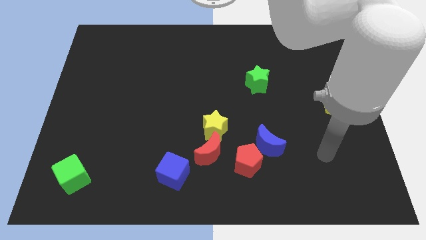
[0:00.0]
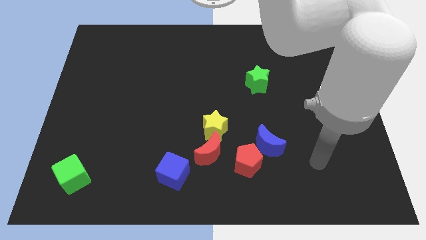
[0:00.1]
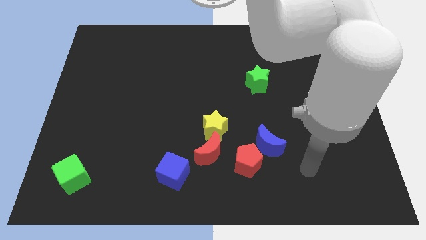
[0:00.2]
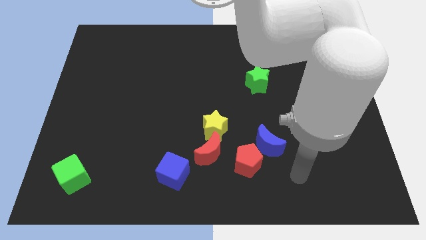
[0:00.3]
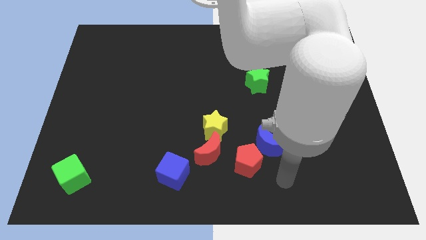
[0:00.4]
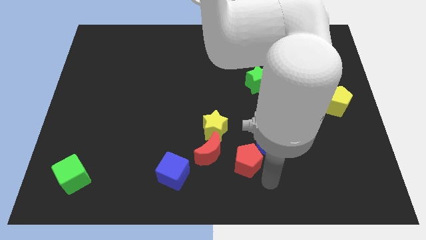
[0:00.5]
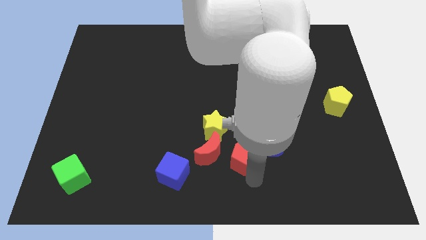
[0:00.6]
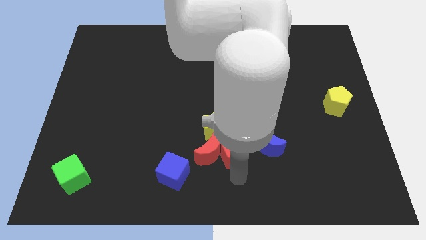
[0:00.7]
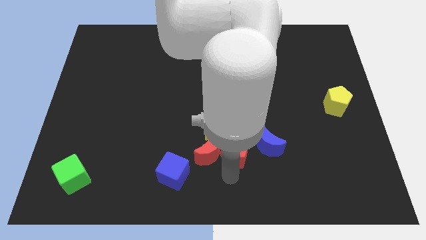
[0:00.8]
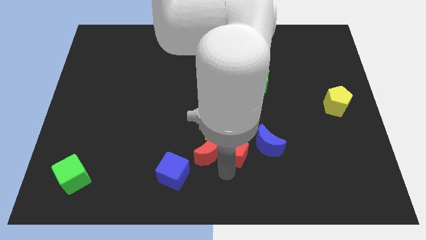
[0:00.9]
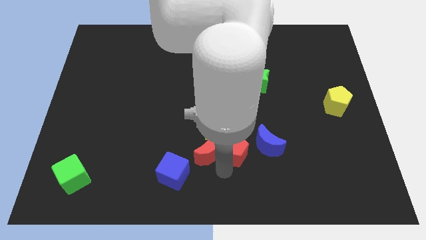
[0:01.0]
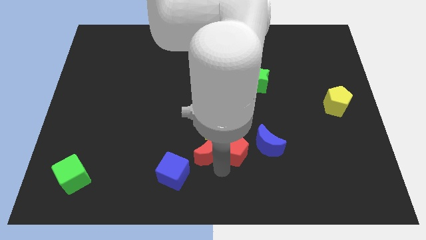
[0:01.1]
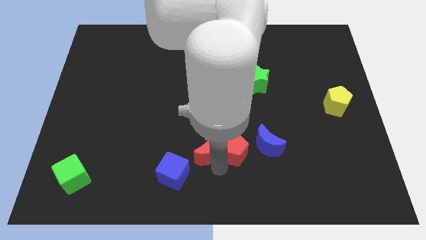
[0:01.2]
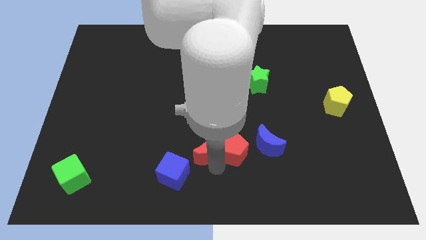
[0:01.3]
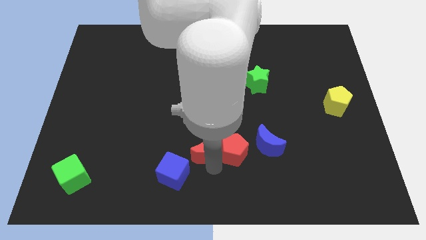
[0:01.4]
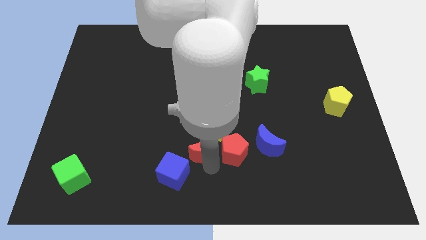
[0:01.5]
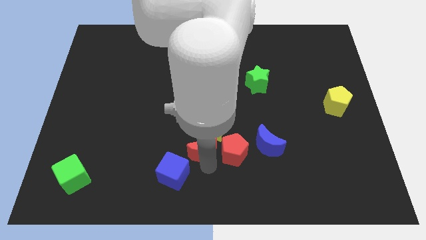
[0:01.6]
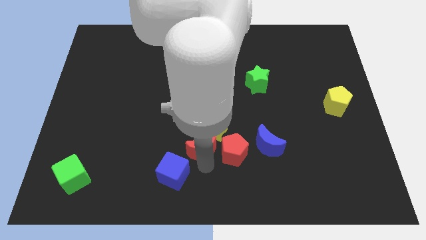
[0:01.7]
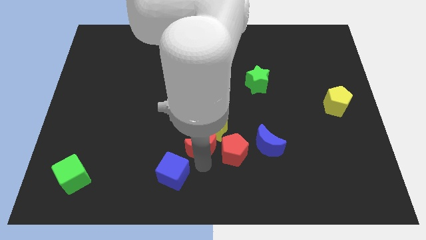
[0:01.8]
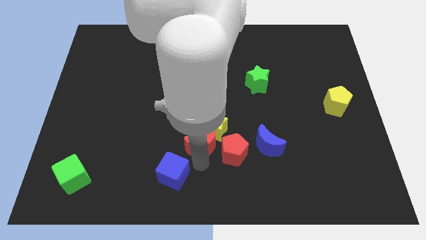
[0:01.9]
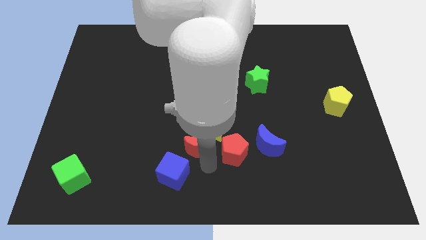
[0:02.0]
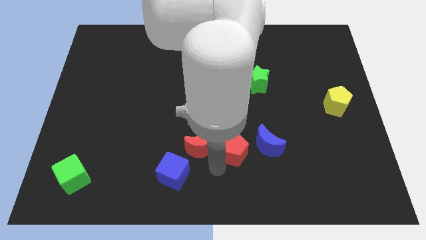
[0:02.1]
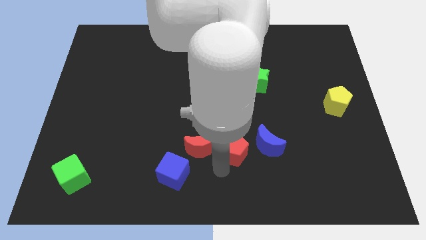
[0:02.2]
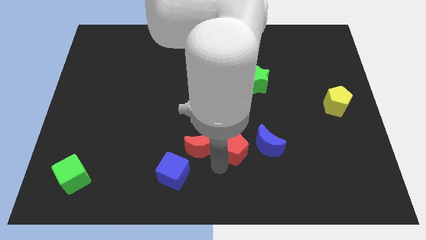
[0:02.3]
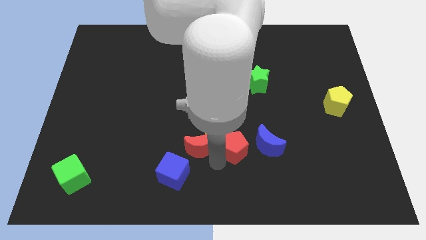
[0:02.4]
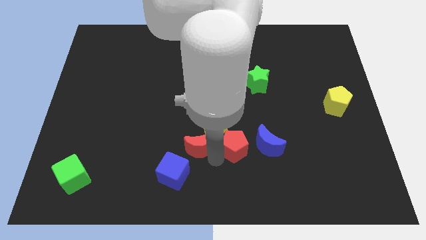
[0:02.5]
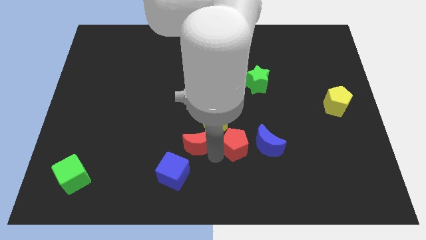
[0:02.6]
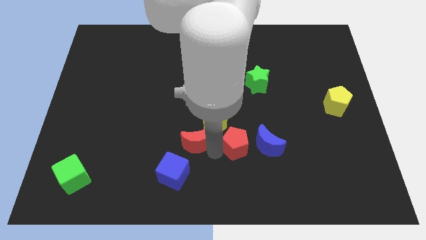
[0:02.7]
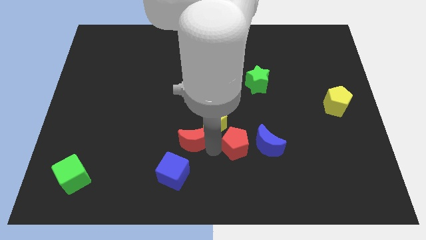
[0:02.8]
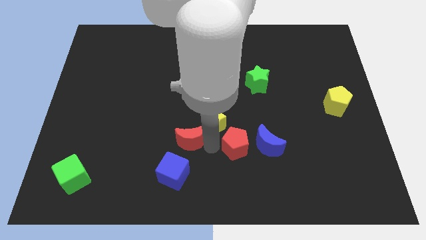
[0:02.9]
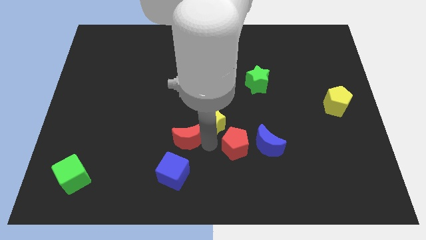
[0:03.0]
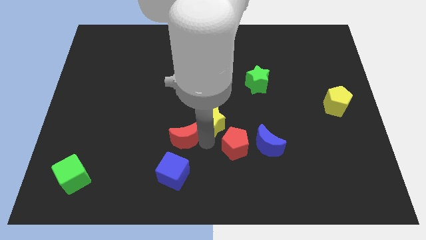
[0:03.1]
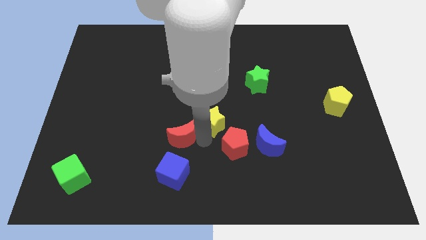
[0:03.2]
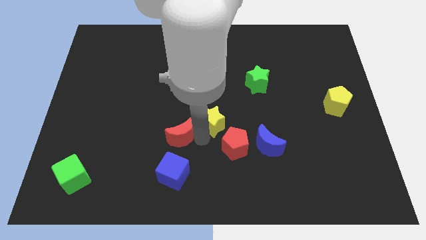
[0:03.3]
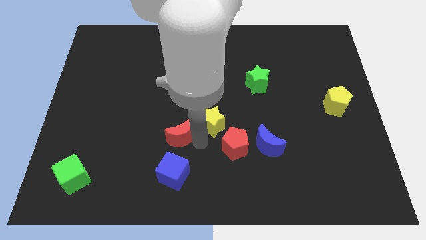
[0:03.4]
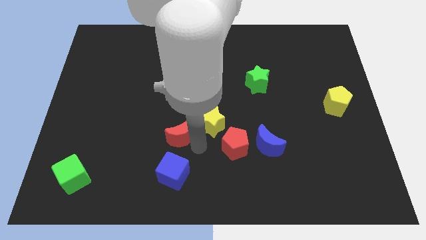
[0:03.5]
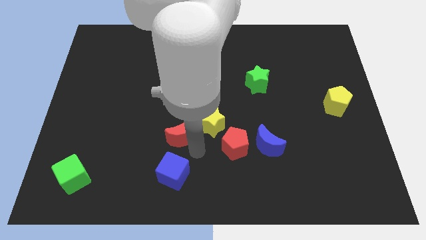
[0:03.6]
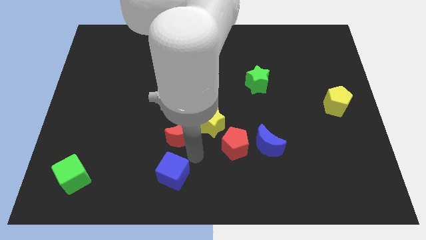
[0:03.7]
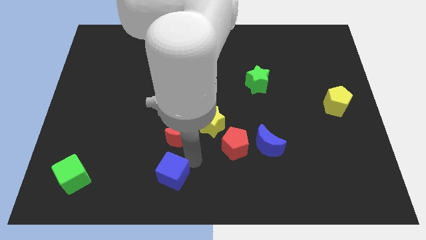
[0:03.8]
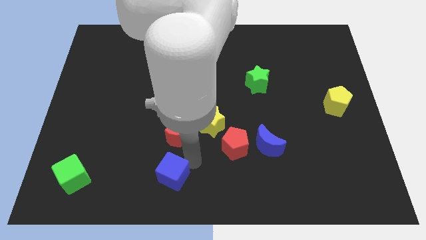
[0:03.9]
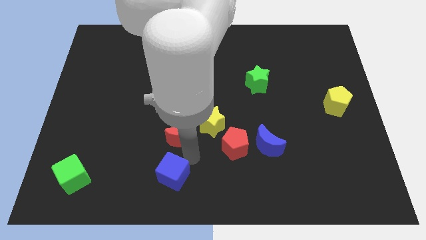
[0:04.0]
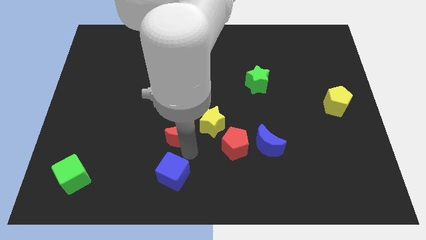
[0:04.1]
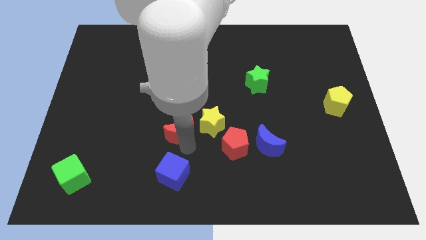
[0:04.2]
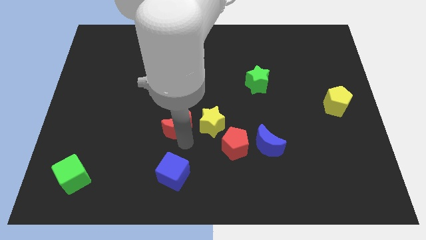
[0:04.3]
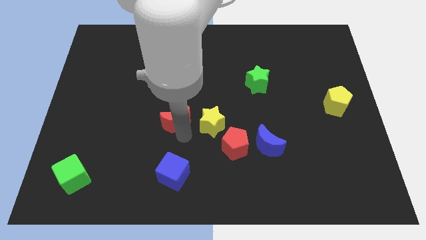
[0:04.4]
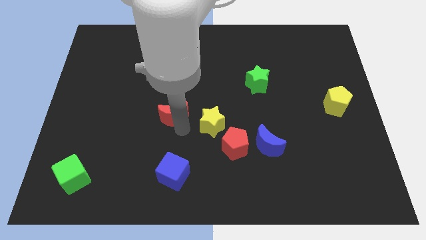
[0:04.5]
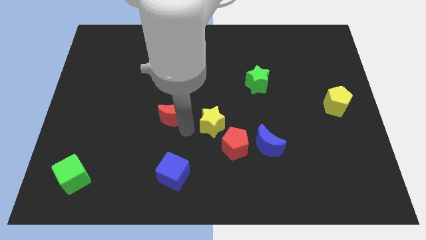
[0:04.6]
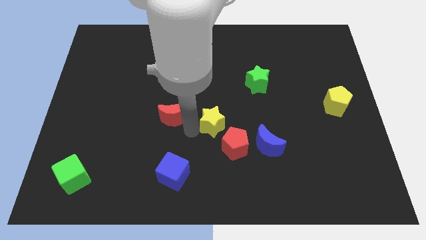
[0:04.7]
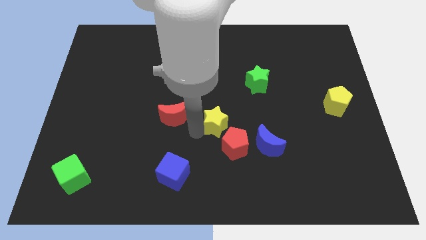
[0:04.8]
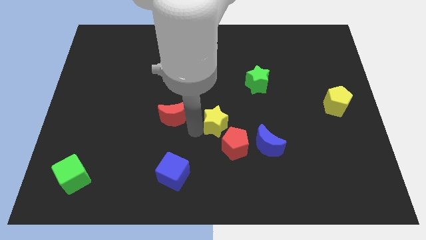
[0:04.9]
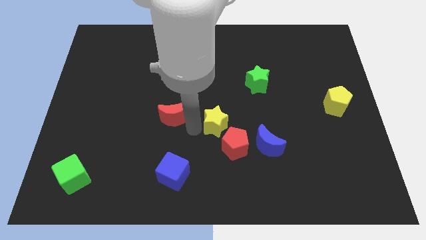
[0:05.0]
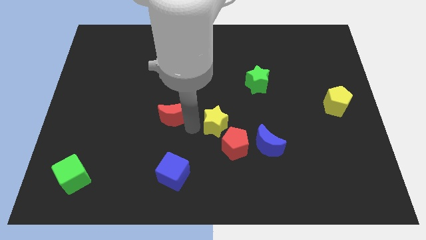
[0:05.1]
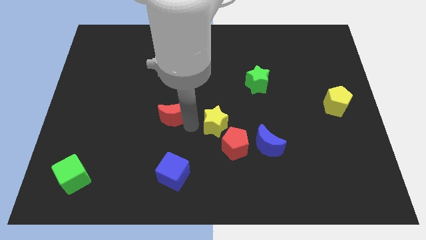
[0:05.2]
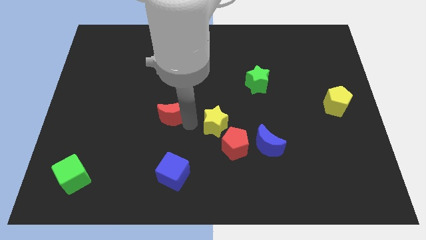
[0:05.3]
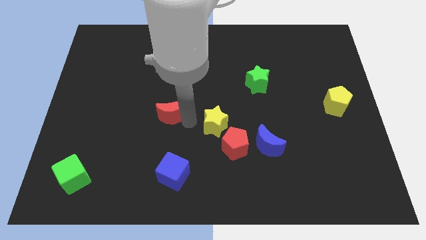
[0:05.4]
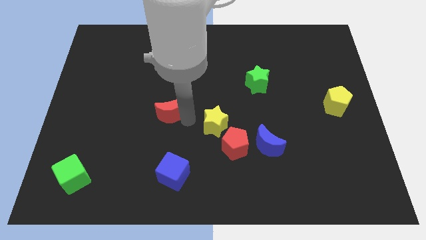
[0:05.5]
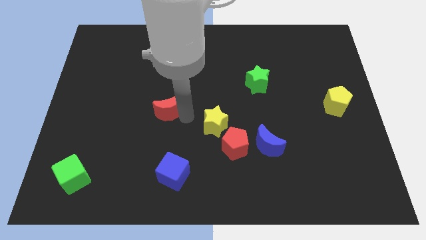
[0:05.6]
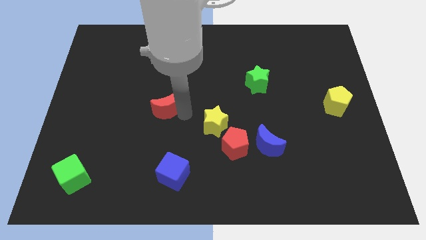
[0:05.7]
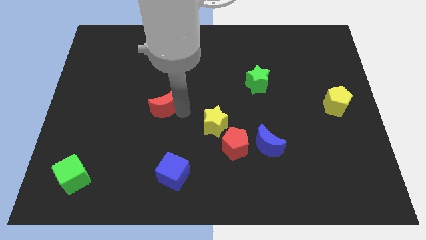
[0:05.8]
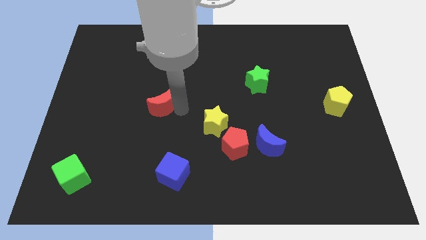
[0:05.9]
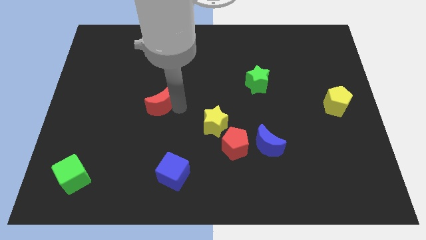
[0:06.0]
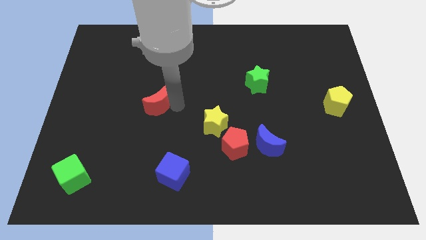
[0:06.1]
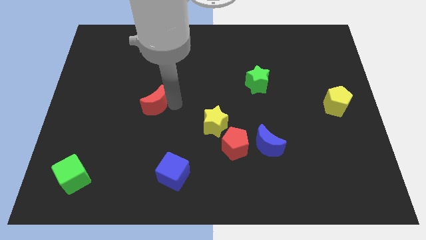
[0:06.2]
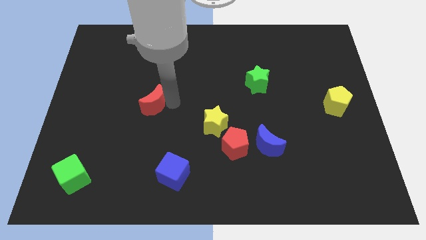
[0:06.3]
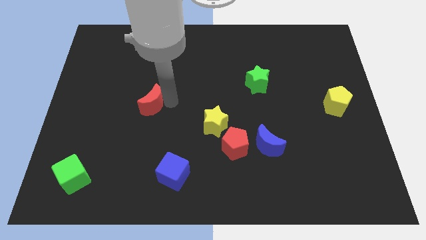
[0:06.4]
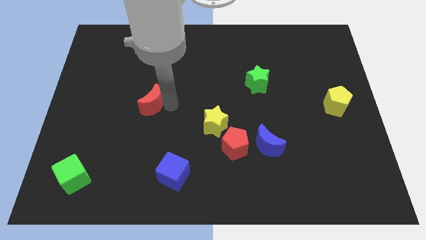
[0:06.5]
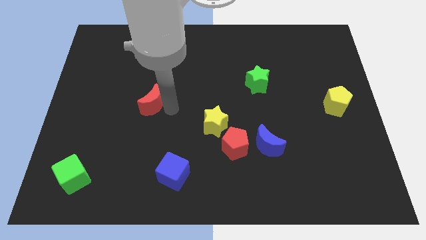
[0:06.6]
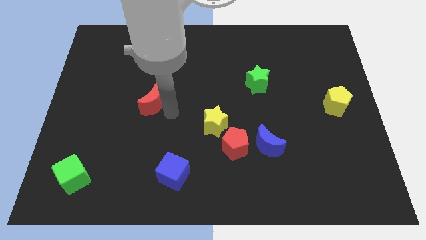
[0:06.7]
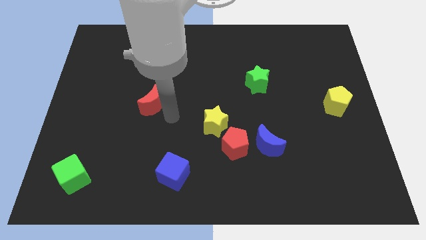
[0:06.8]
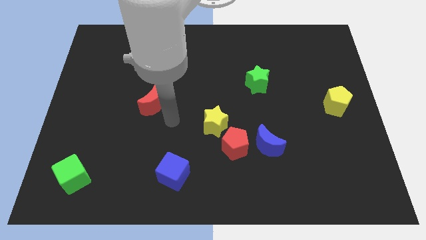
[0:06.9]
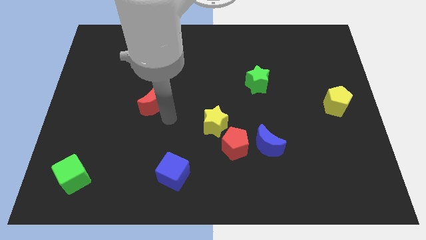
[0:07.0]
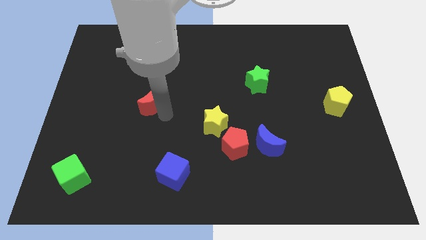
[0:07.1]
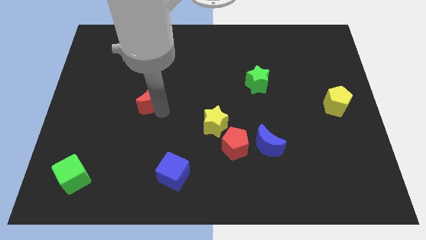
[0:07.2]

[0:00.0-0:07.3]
push the red moon diagonally up and to the left
